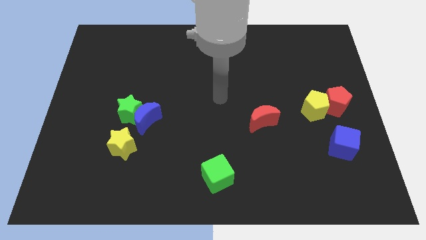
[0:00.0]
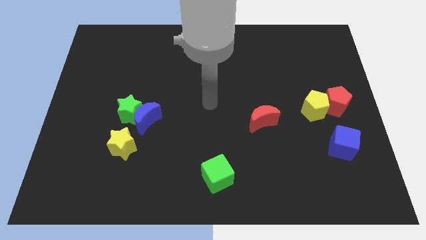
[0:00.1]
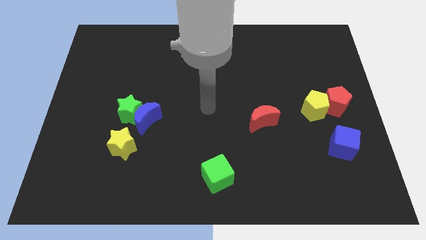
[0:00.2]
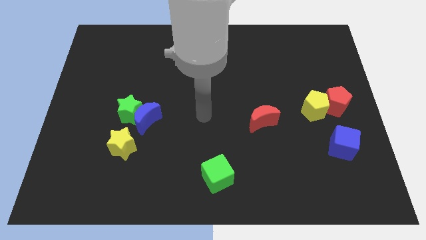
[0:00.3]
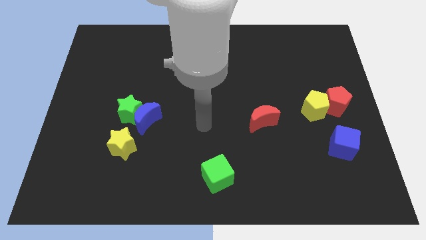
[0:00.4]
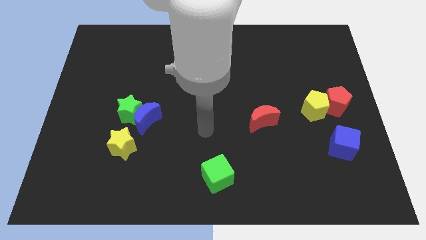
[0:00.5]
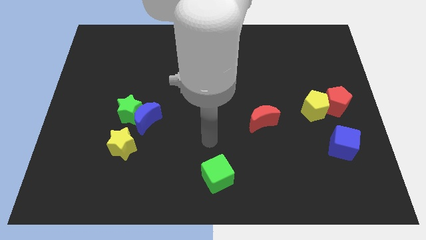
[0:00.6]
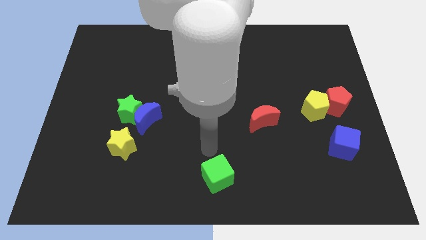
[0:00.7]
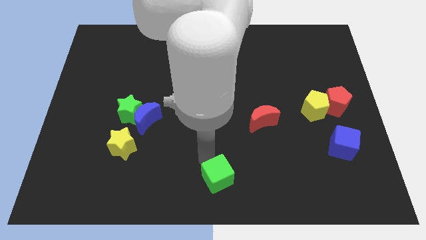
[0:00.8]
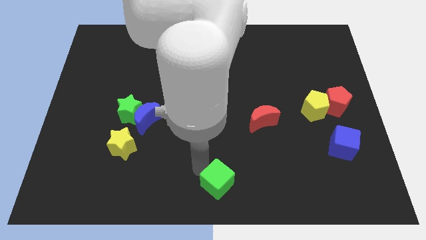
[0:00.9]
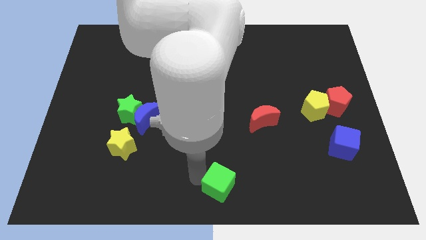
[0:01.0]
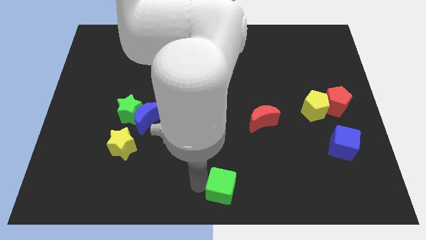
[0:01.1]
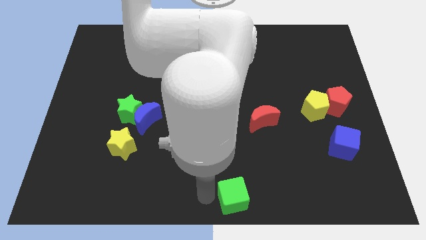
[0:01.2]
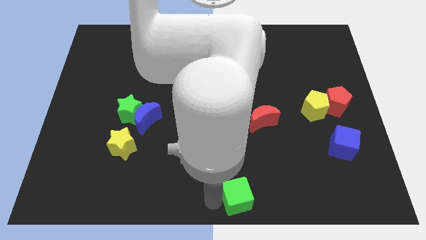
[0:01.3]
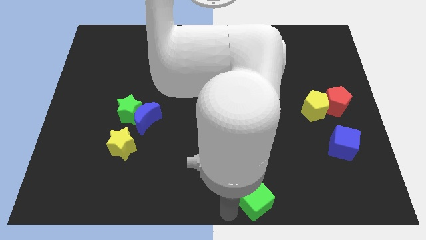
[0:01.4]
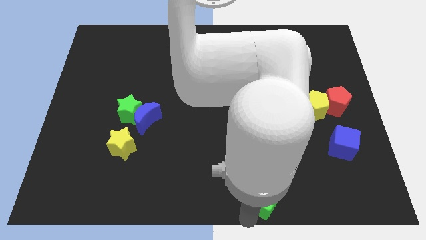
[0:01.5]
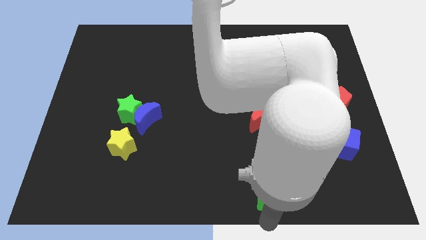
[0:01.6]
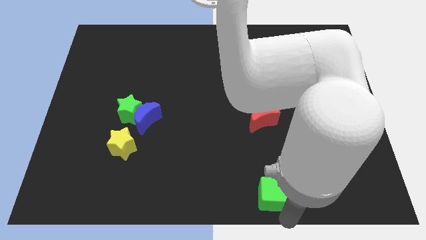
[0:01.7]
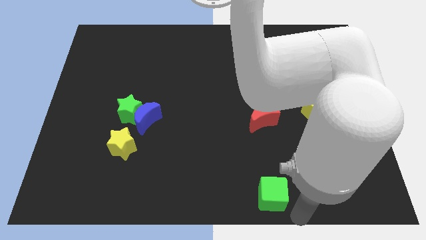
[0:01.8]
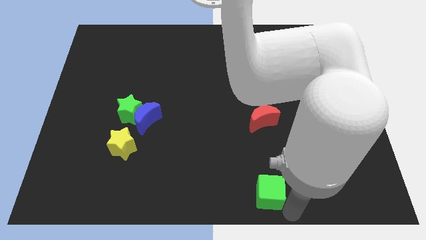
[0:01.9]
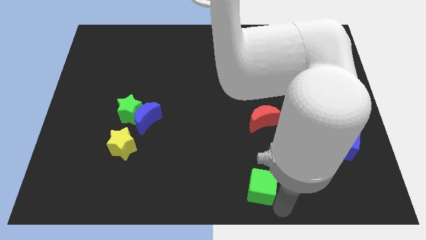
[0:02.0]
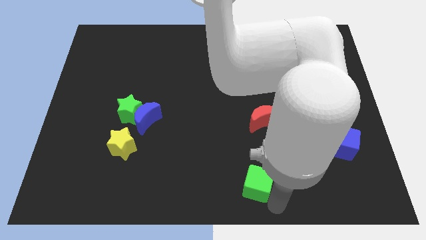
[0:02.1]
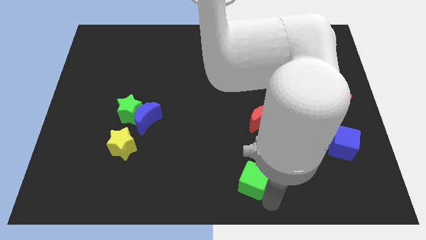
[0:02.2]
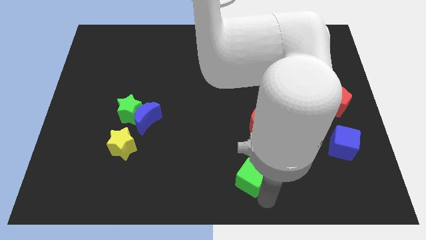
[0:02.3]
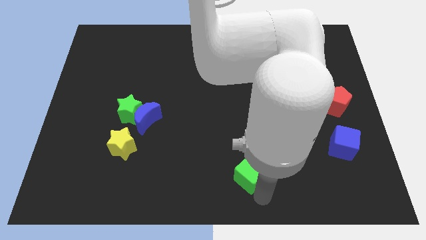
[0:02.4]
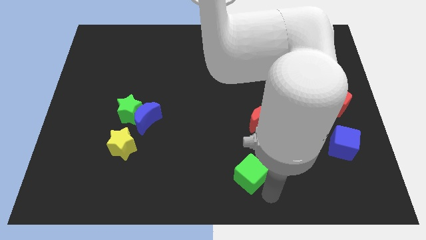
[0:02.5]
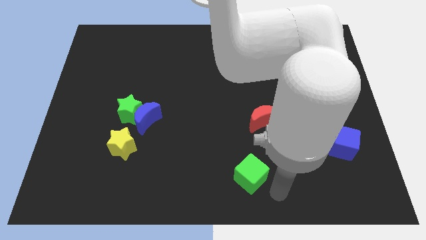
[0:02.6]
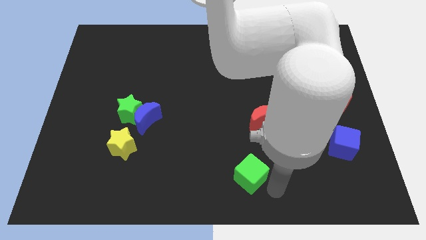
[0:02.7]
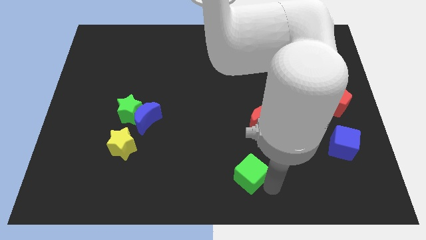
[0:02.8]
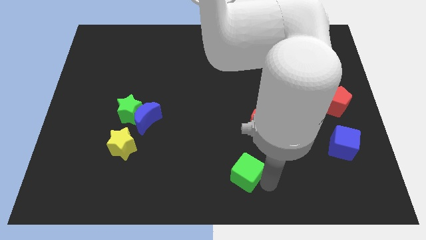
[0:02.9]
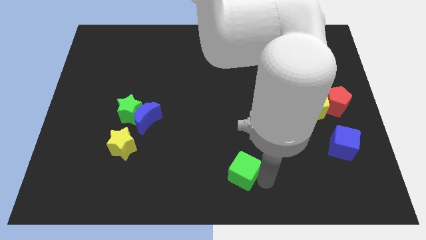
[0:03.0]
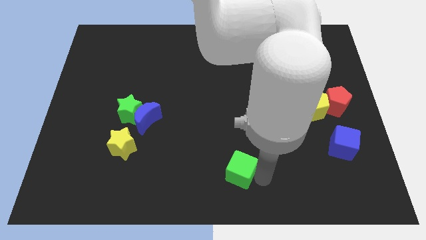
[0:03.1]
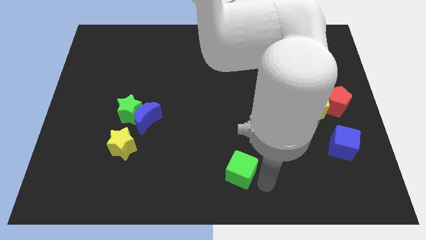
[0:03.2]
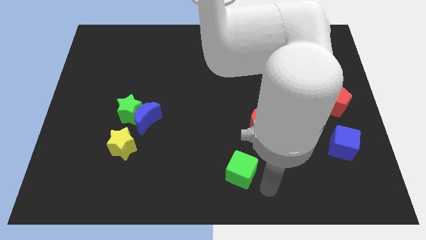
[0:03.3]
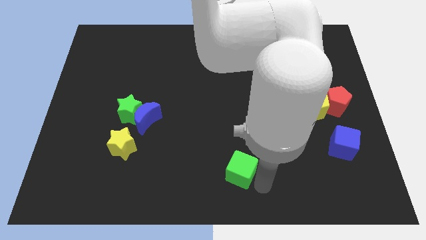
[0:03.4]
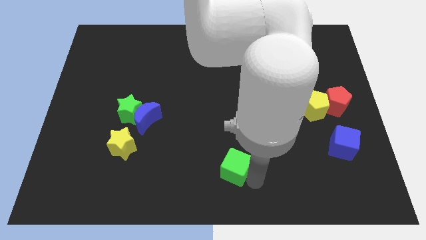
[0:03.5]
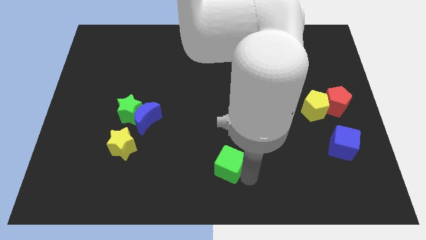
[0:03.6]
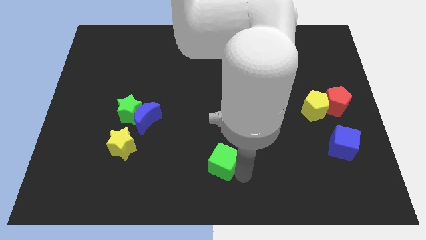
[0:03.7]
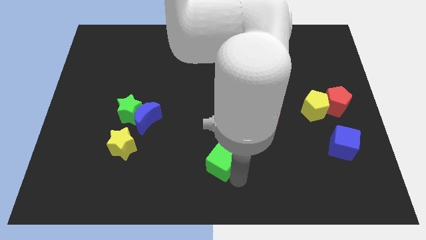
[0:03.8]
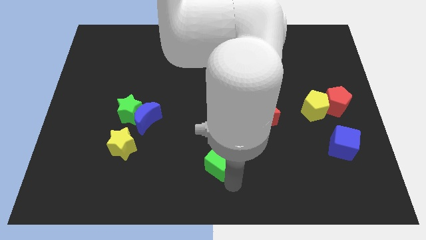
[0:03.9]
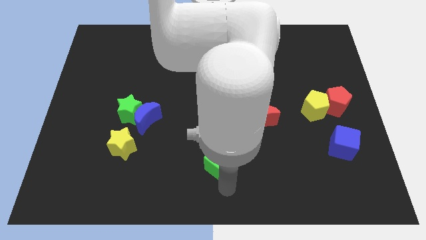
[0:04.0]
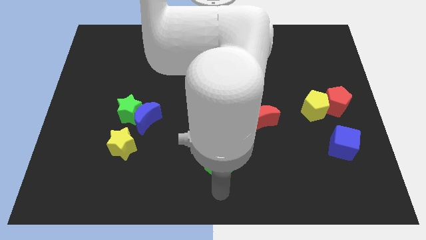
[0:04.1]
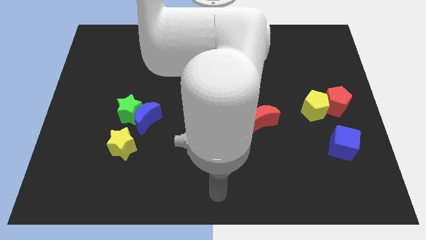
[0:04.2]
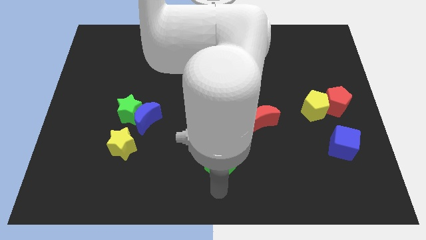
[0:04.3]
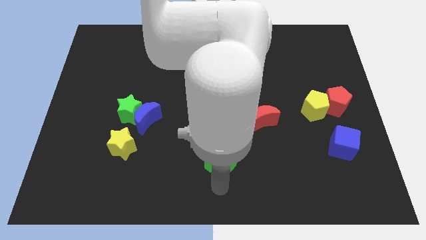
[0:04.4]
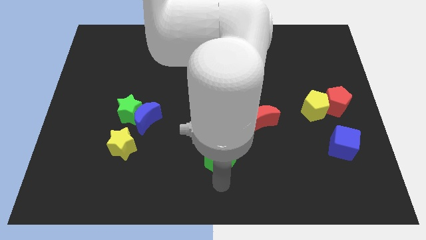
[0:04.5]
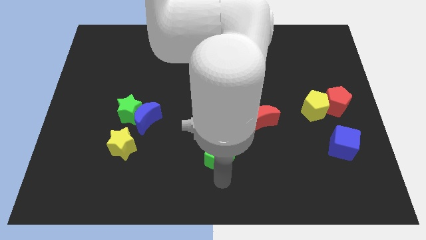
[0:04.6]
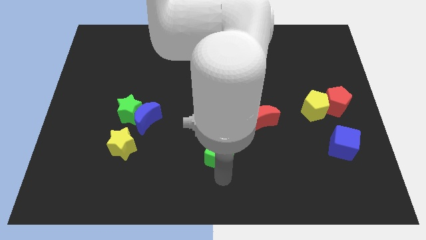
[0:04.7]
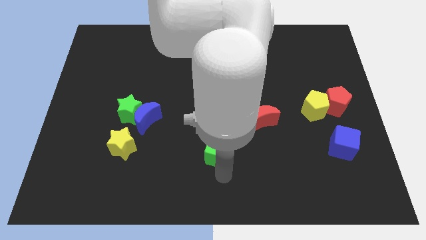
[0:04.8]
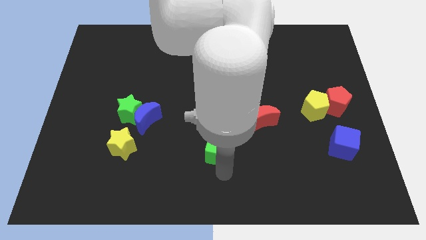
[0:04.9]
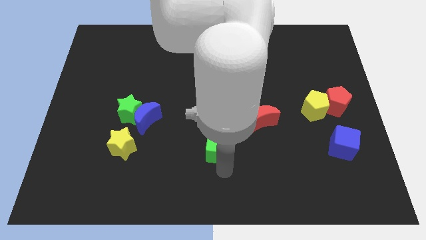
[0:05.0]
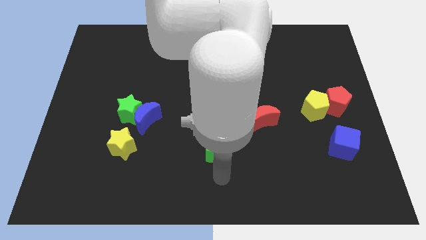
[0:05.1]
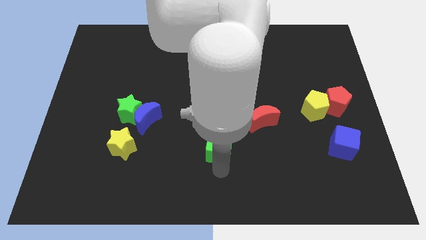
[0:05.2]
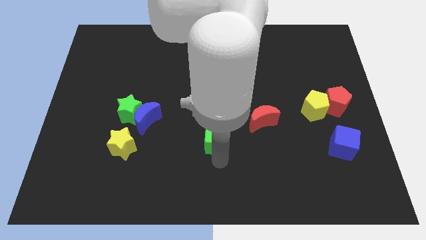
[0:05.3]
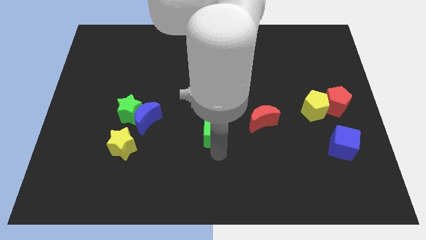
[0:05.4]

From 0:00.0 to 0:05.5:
slide the green cube to the left side of the red moon

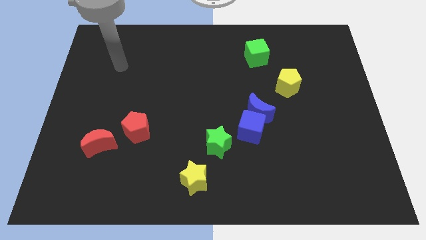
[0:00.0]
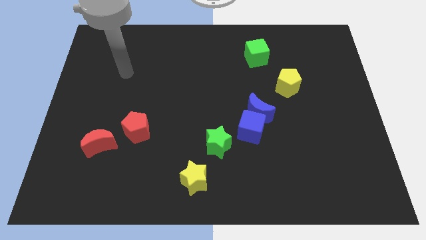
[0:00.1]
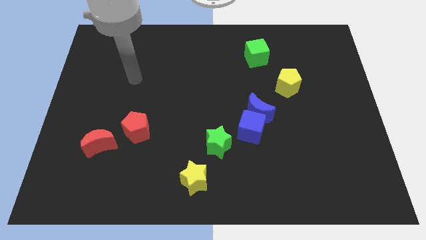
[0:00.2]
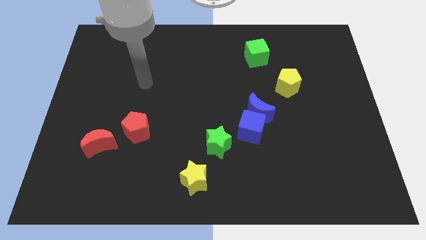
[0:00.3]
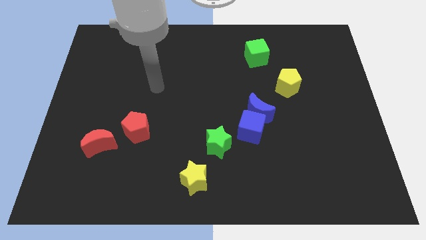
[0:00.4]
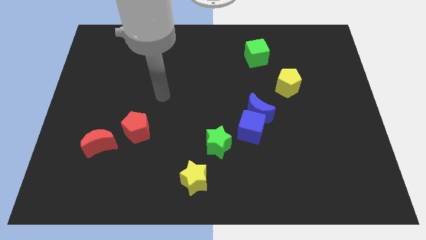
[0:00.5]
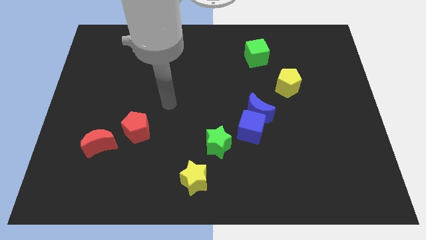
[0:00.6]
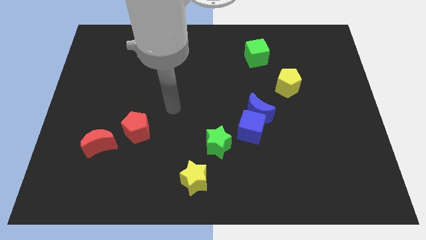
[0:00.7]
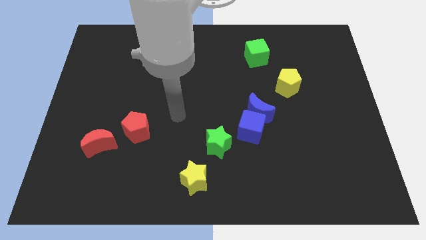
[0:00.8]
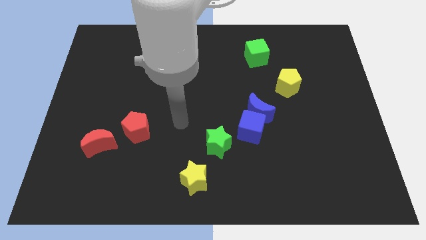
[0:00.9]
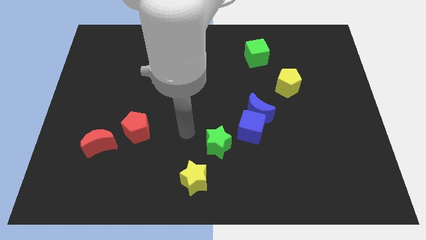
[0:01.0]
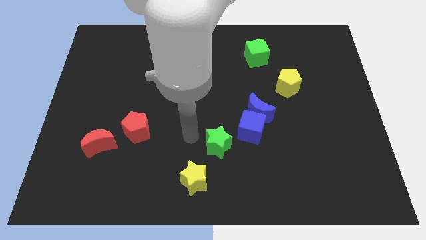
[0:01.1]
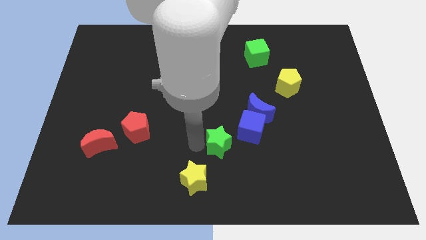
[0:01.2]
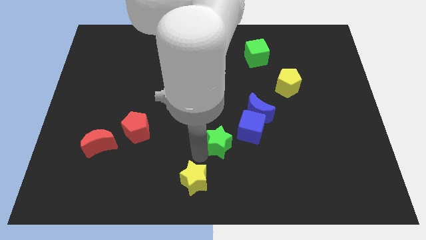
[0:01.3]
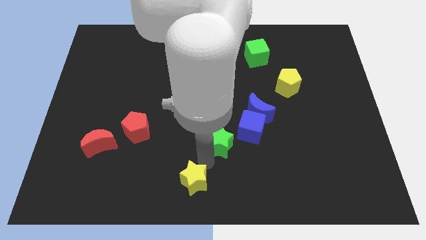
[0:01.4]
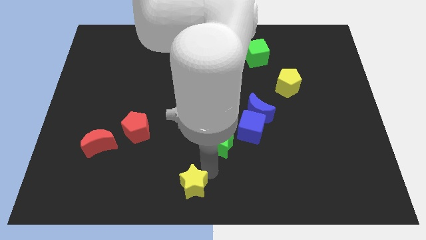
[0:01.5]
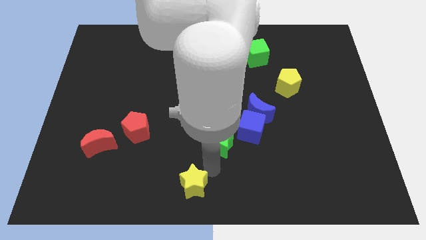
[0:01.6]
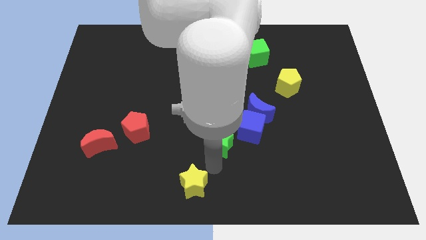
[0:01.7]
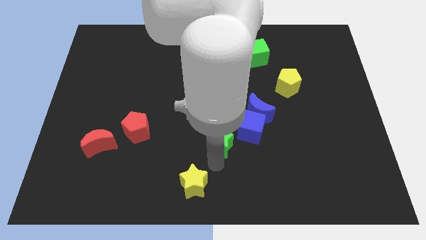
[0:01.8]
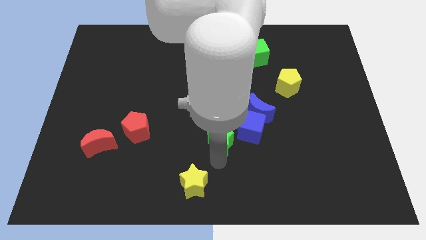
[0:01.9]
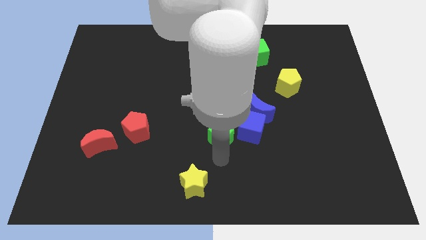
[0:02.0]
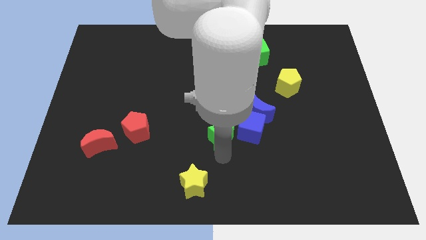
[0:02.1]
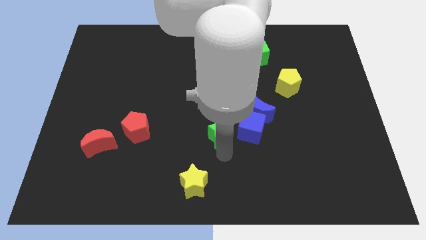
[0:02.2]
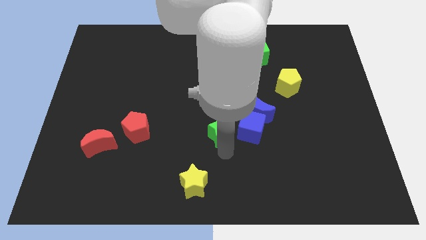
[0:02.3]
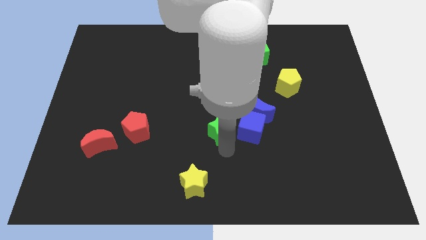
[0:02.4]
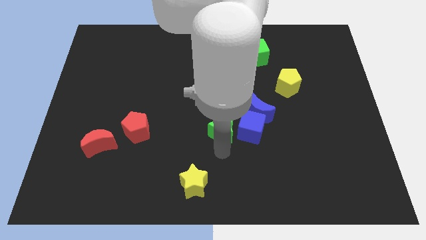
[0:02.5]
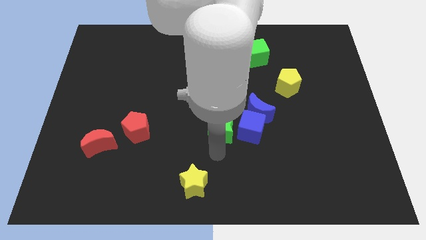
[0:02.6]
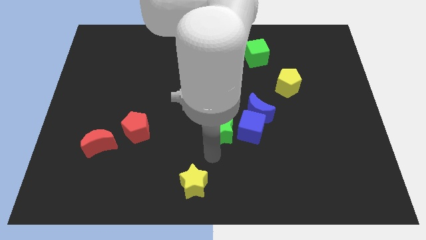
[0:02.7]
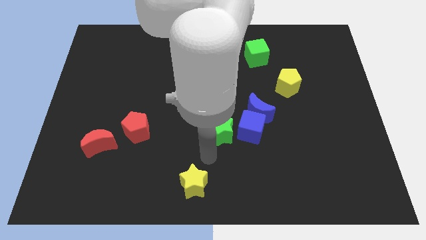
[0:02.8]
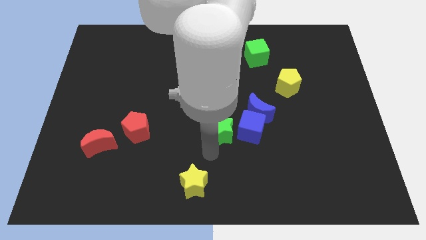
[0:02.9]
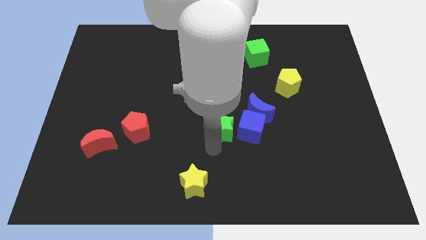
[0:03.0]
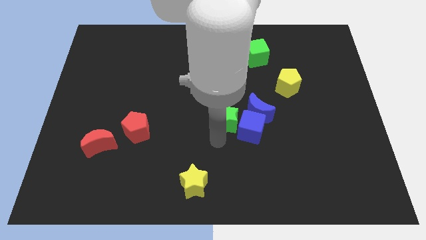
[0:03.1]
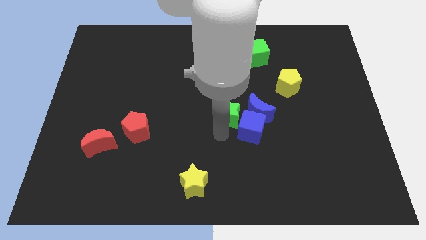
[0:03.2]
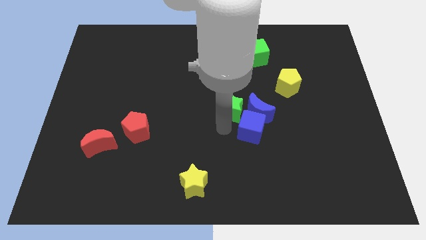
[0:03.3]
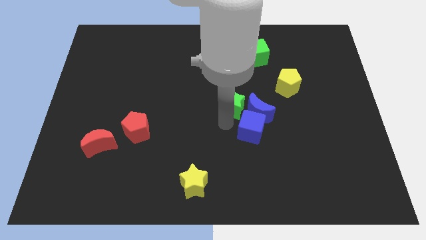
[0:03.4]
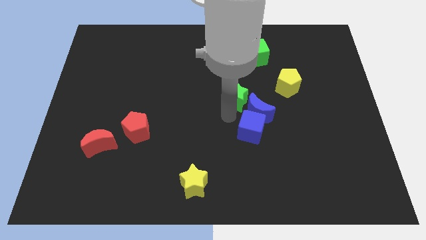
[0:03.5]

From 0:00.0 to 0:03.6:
move the green star to the left of the yellow pentagon
